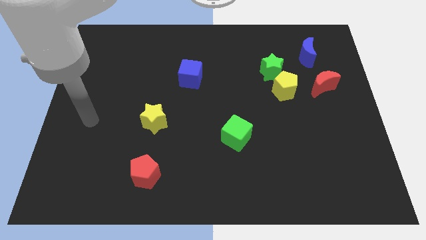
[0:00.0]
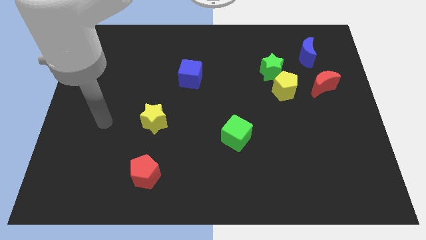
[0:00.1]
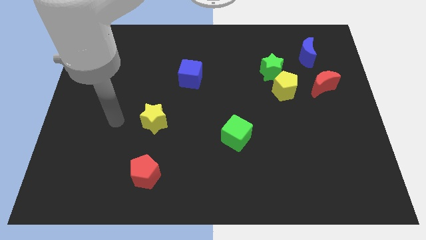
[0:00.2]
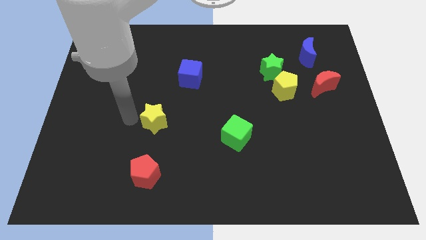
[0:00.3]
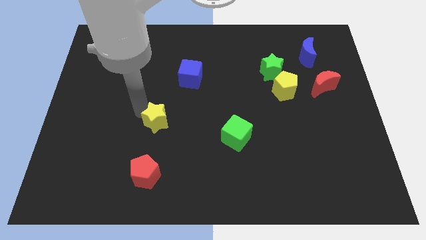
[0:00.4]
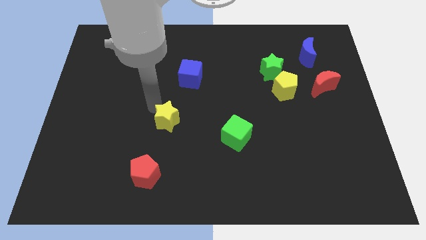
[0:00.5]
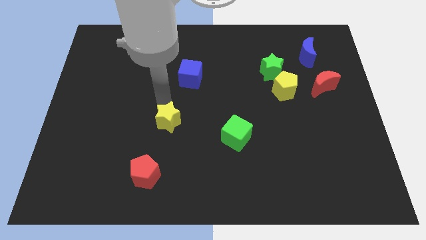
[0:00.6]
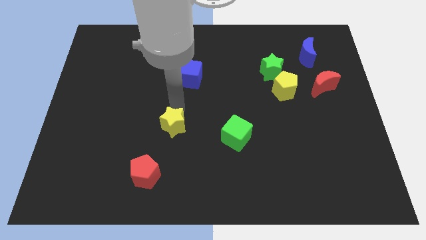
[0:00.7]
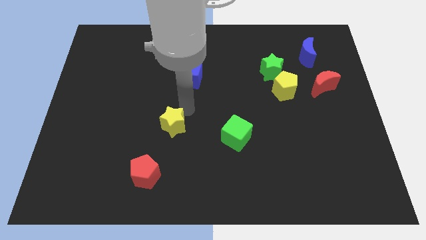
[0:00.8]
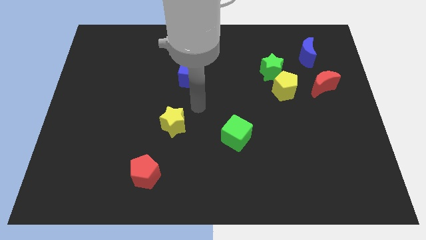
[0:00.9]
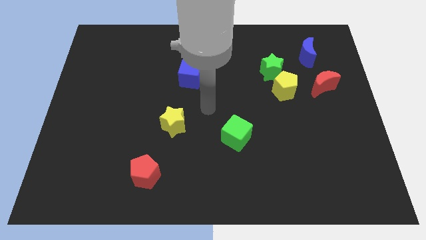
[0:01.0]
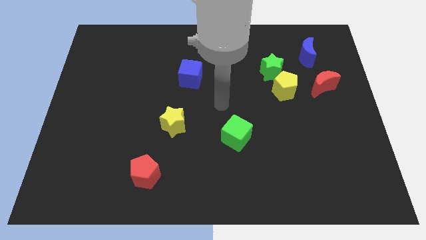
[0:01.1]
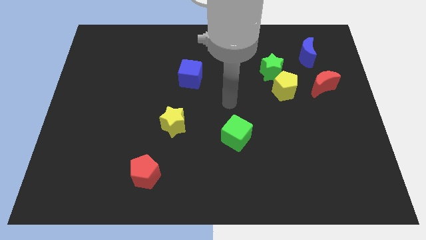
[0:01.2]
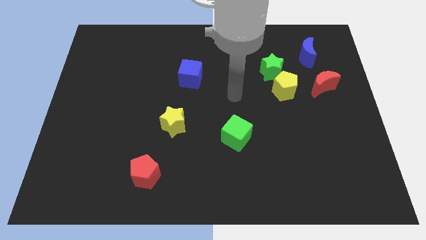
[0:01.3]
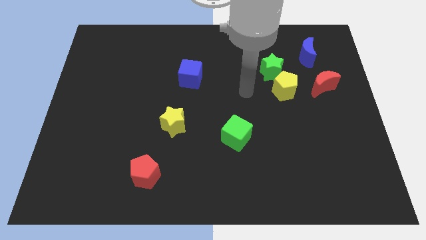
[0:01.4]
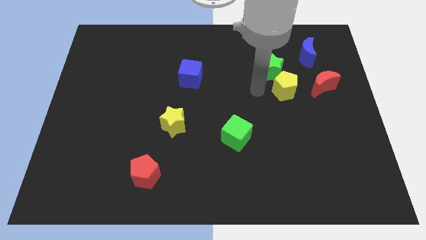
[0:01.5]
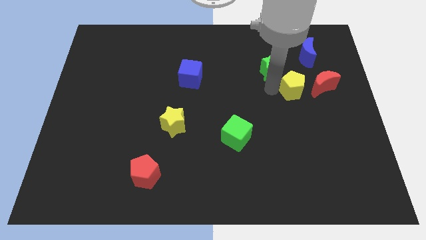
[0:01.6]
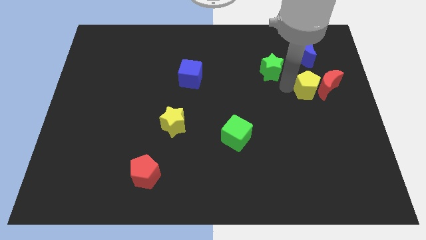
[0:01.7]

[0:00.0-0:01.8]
move the green star away from the yellow pentagon

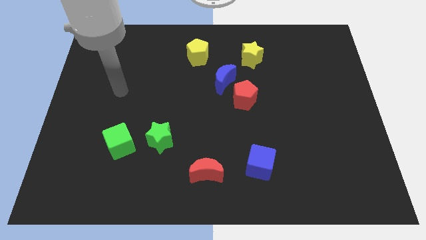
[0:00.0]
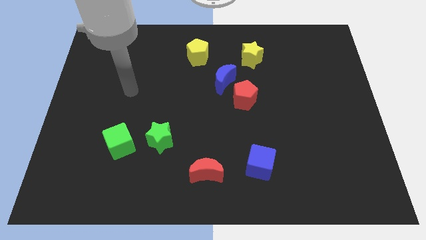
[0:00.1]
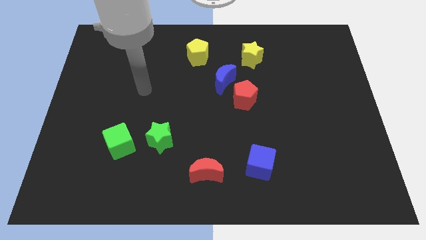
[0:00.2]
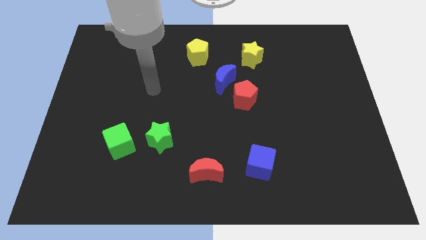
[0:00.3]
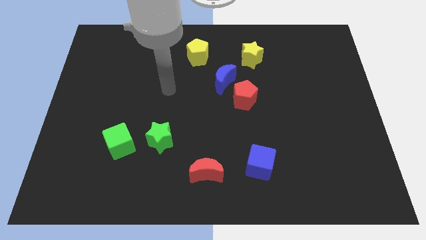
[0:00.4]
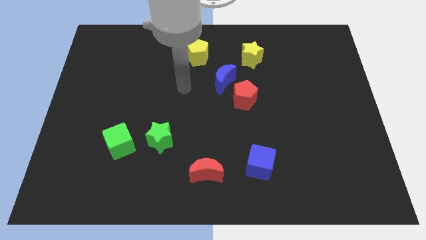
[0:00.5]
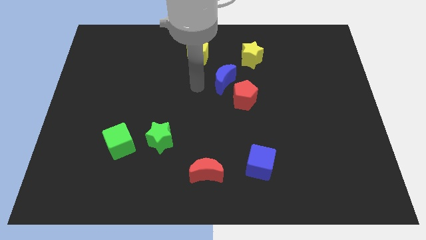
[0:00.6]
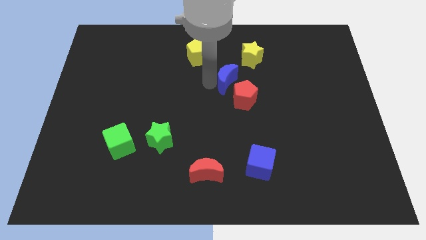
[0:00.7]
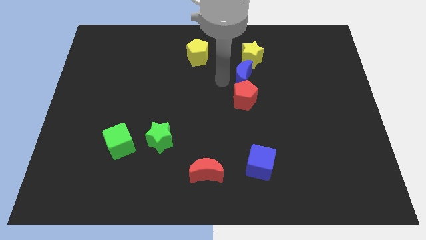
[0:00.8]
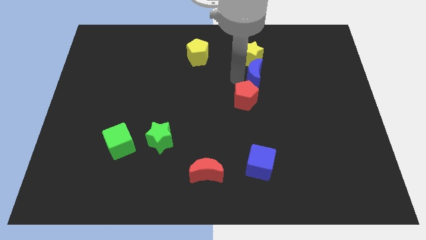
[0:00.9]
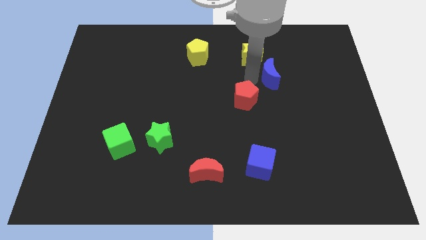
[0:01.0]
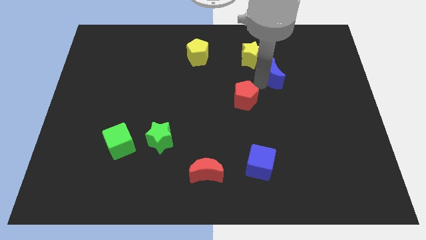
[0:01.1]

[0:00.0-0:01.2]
pull the red pentagon apart from the blue moon

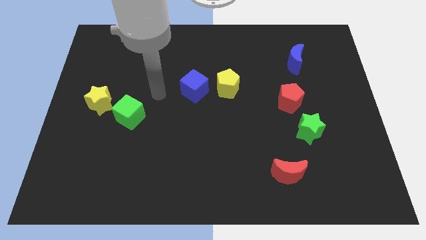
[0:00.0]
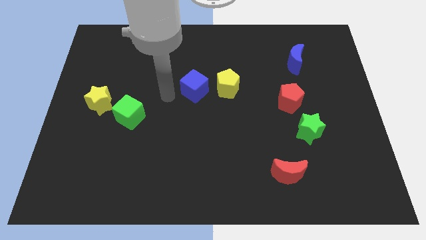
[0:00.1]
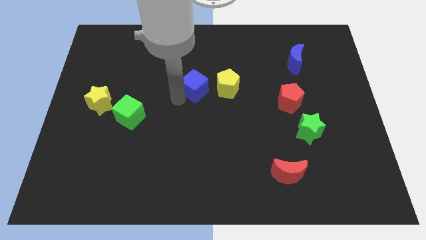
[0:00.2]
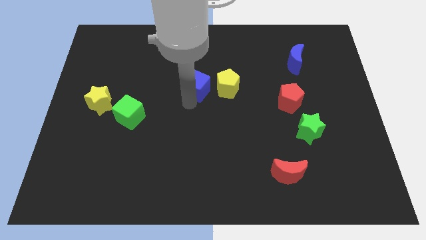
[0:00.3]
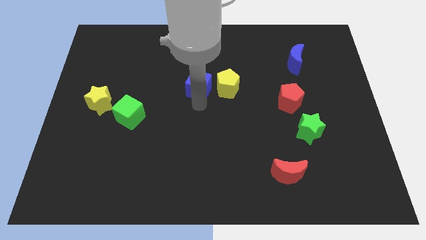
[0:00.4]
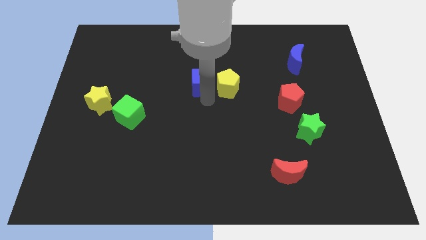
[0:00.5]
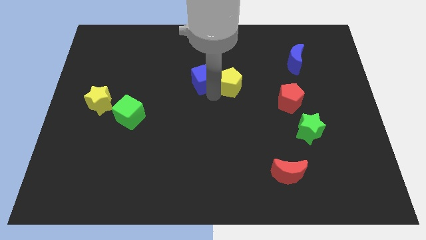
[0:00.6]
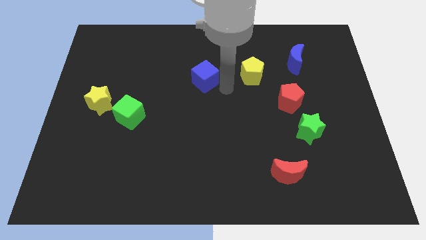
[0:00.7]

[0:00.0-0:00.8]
move the blue cube away from the yellow pentagon

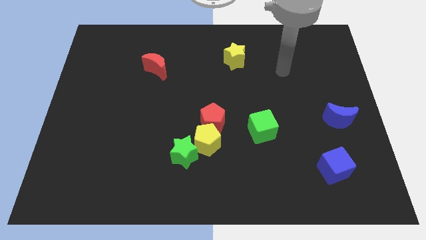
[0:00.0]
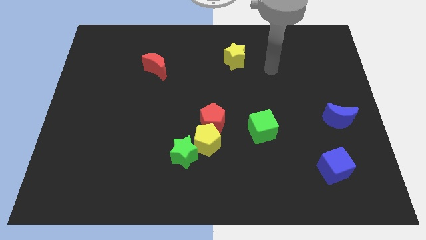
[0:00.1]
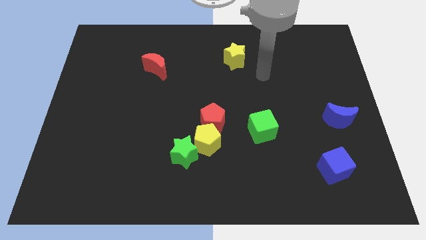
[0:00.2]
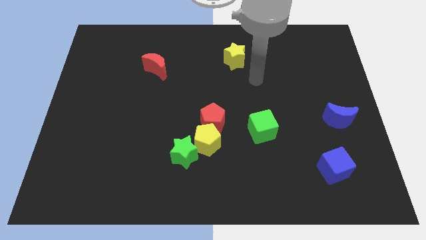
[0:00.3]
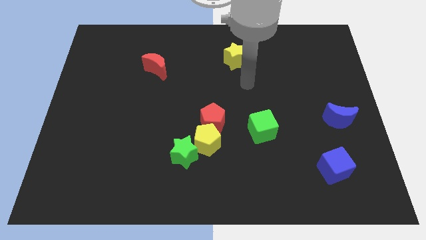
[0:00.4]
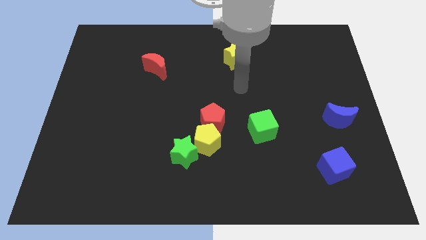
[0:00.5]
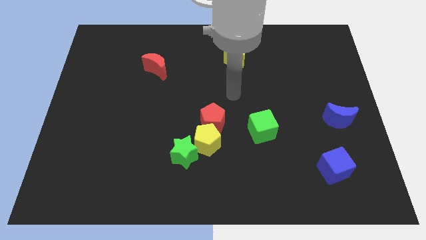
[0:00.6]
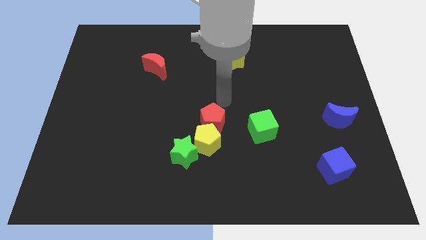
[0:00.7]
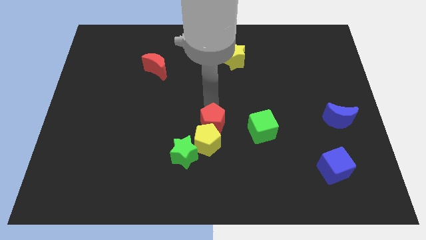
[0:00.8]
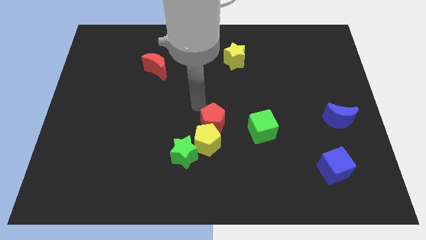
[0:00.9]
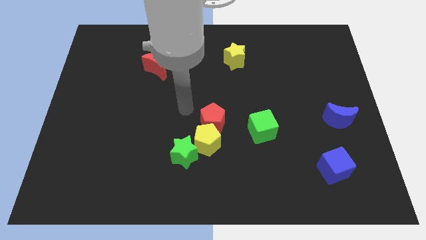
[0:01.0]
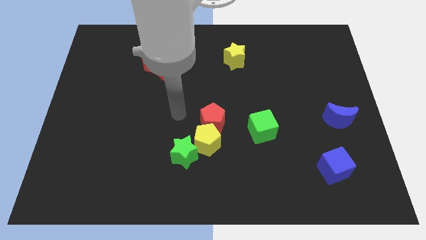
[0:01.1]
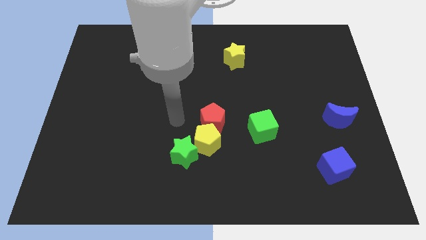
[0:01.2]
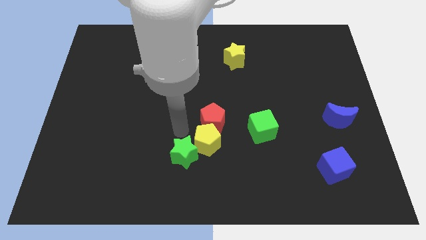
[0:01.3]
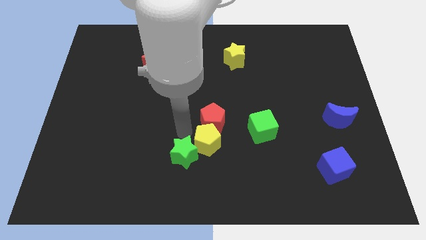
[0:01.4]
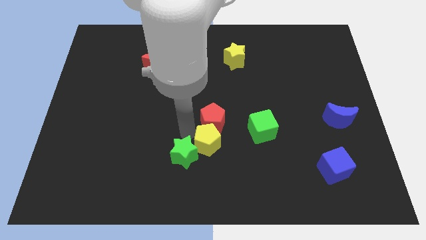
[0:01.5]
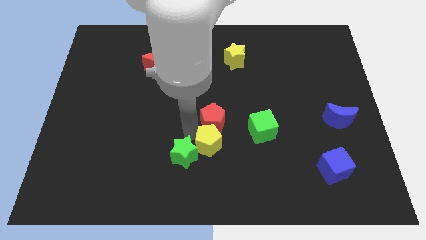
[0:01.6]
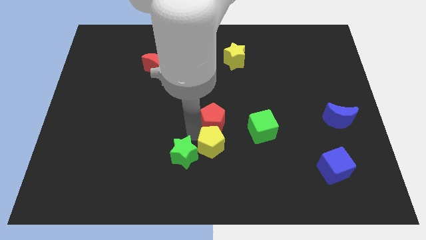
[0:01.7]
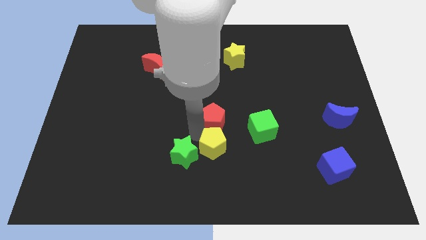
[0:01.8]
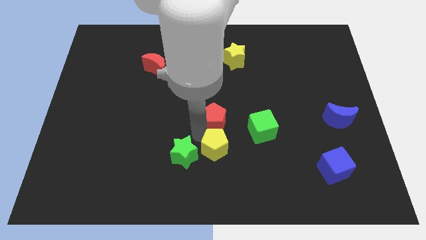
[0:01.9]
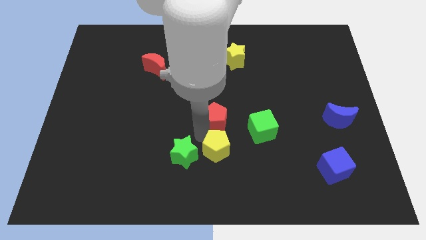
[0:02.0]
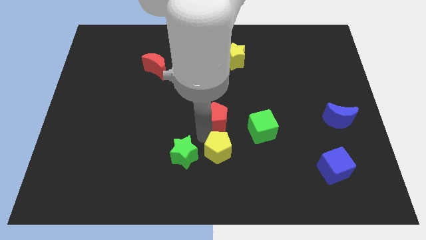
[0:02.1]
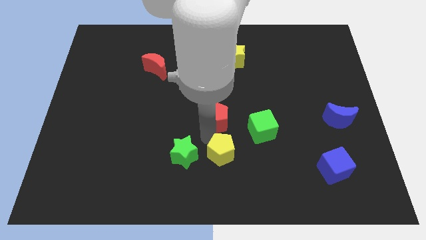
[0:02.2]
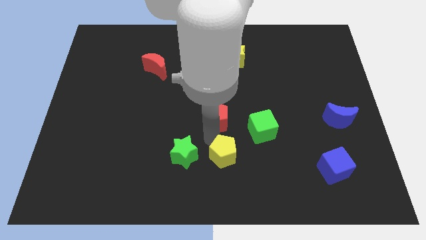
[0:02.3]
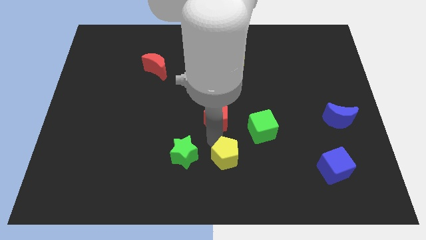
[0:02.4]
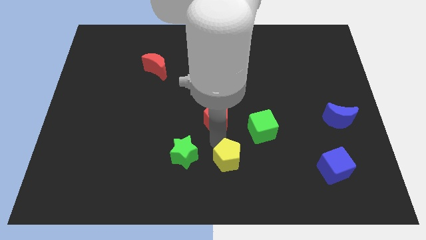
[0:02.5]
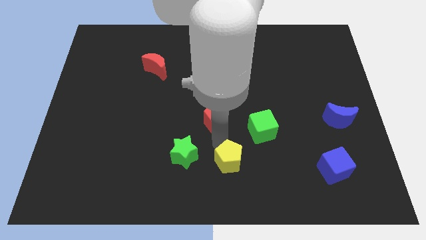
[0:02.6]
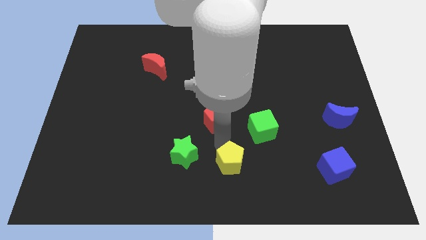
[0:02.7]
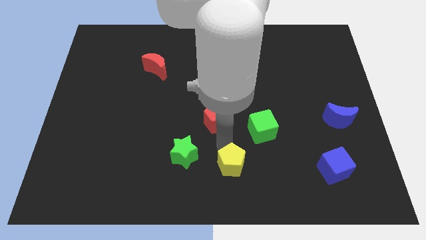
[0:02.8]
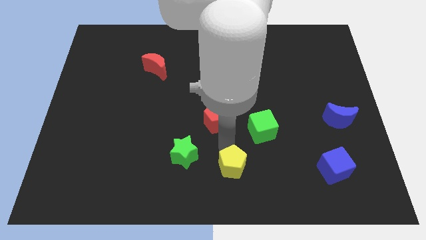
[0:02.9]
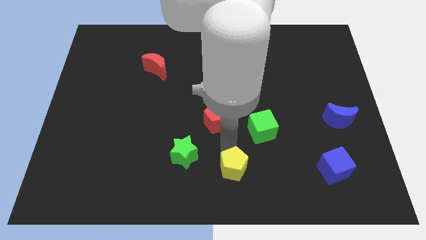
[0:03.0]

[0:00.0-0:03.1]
move the yellow pentagon away from the red pentagon and green star

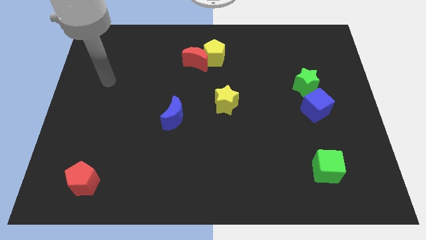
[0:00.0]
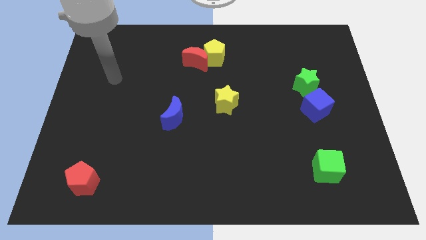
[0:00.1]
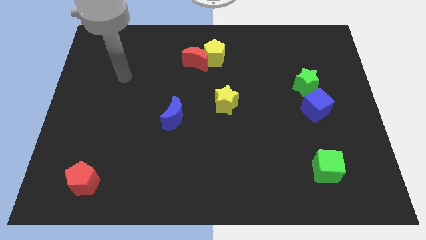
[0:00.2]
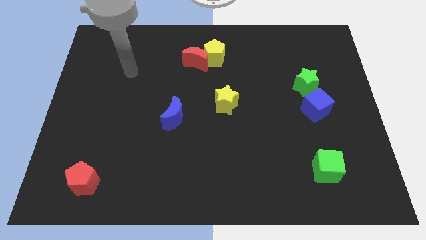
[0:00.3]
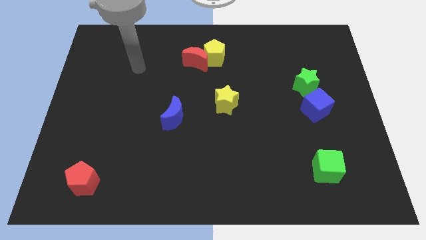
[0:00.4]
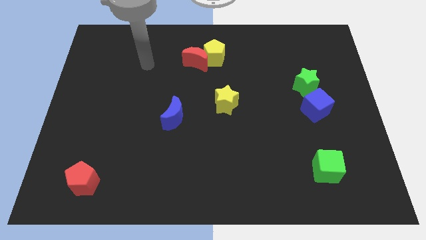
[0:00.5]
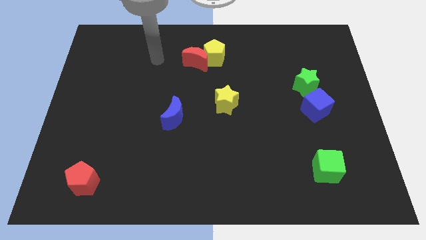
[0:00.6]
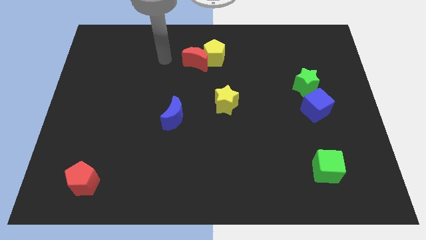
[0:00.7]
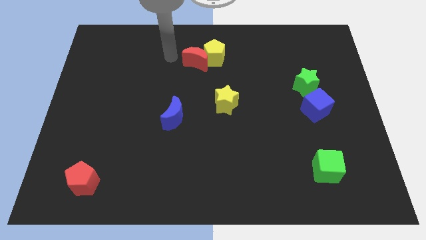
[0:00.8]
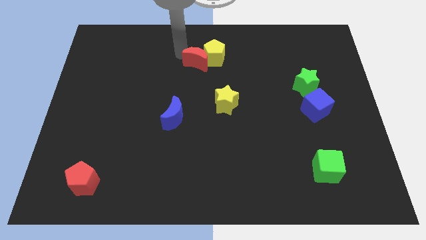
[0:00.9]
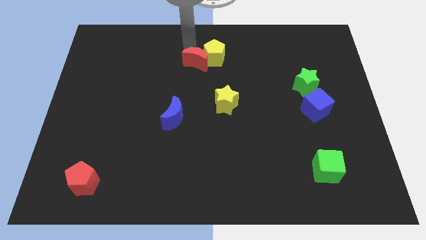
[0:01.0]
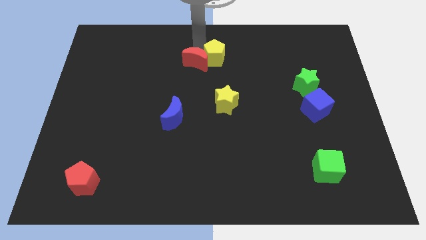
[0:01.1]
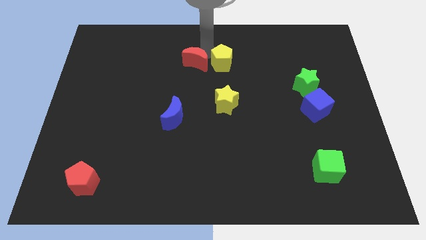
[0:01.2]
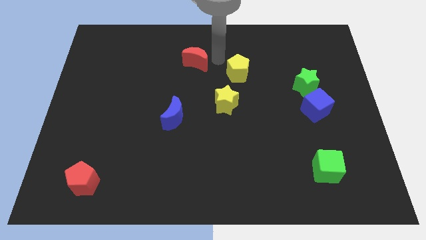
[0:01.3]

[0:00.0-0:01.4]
separate the red moon from the yellow pentagon

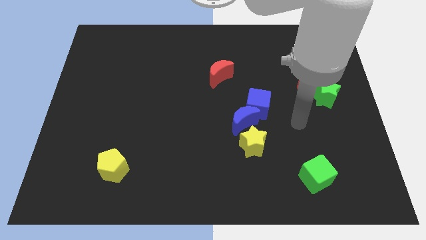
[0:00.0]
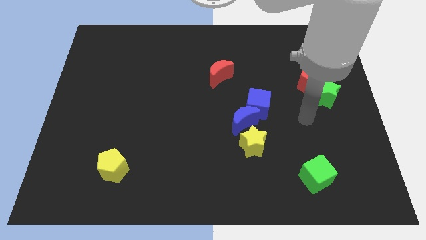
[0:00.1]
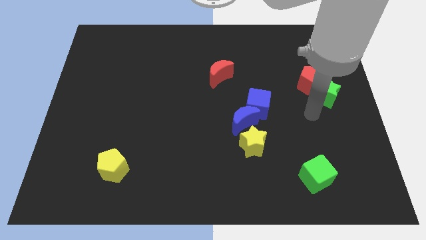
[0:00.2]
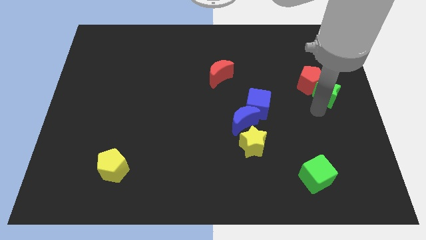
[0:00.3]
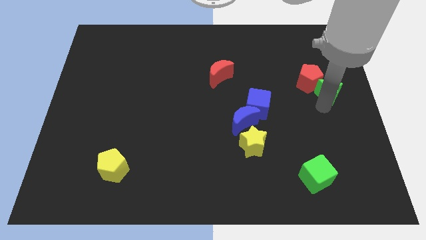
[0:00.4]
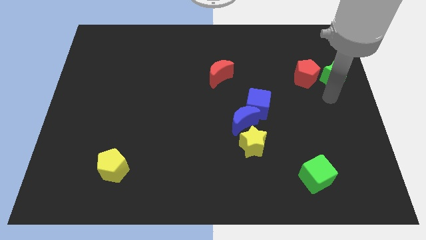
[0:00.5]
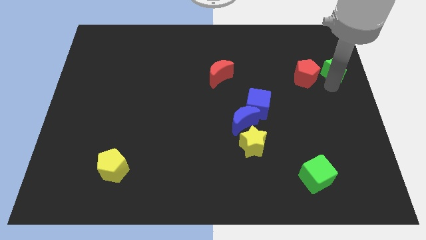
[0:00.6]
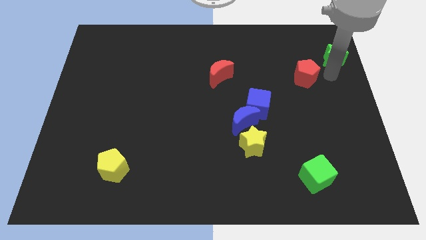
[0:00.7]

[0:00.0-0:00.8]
move the red pentagon away from the green star

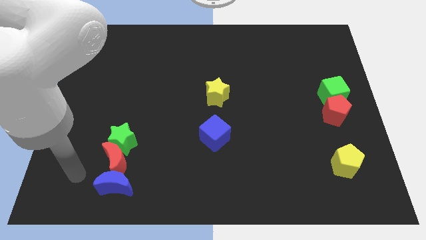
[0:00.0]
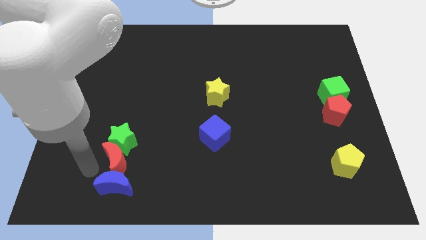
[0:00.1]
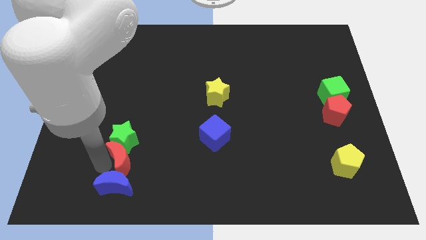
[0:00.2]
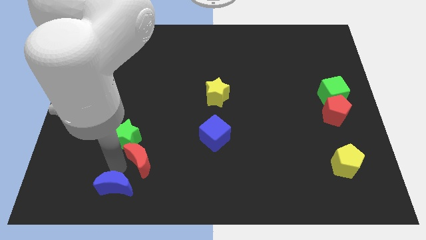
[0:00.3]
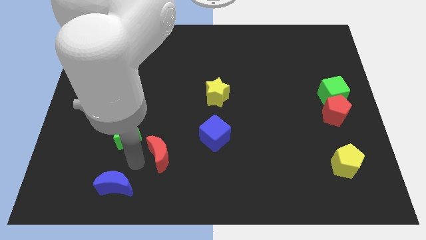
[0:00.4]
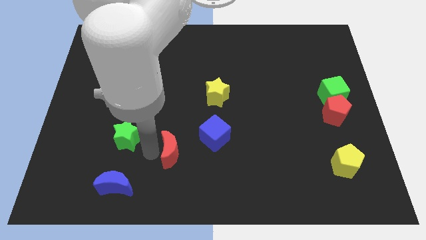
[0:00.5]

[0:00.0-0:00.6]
separate the green star from the red moon
